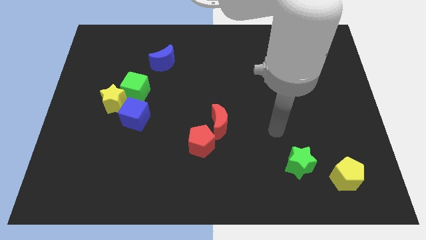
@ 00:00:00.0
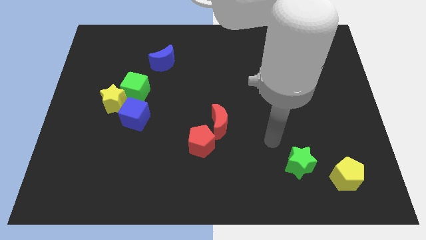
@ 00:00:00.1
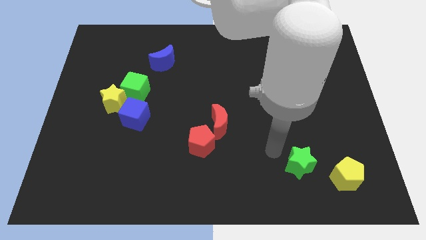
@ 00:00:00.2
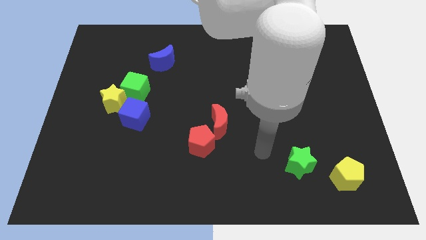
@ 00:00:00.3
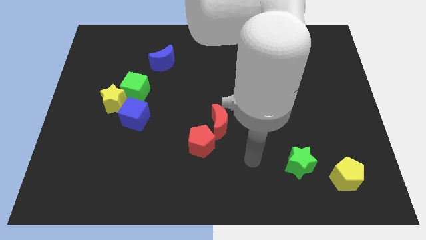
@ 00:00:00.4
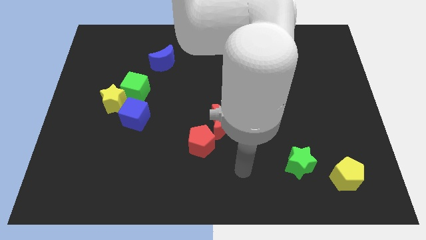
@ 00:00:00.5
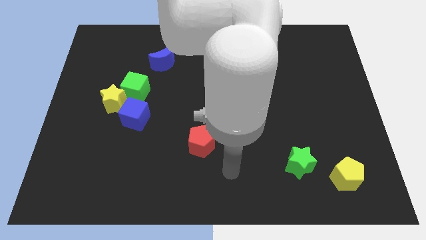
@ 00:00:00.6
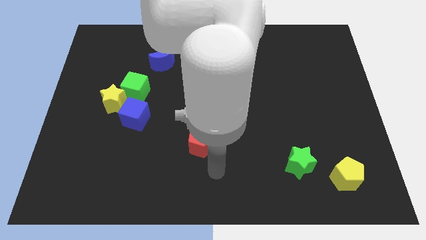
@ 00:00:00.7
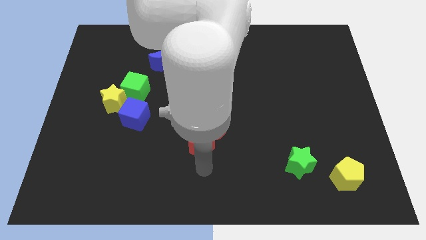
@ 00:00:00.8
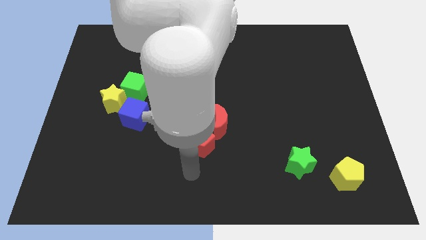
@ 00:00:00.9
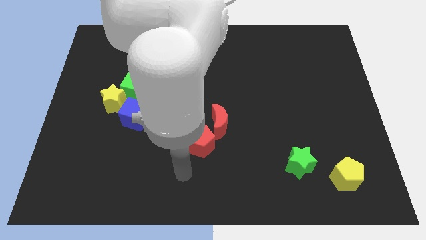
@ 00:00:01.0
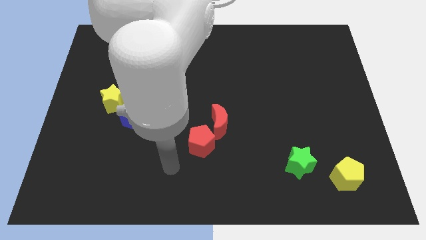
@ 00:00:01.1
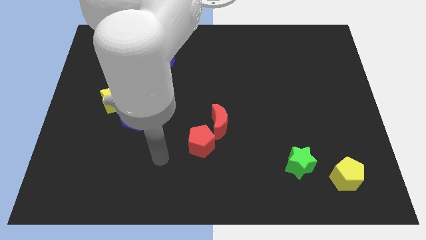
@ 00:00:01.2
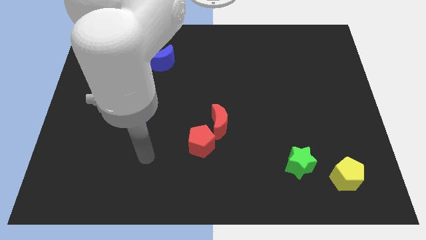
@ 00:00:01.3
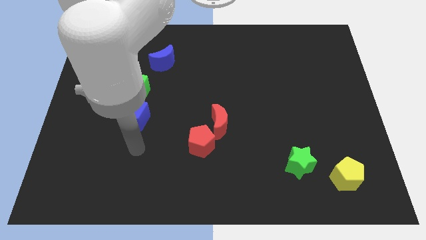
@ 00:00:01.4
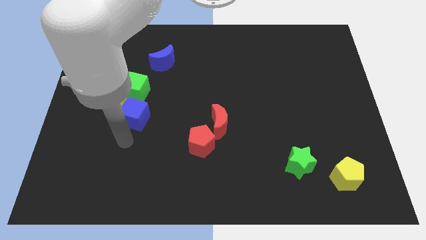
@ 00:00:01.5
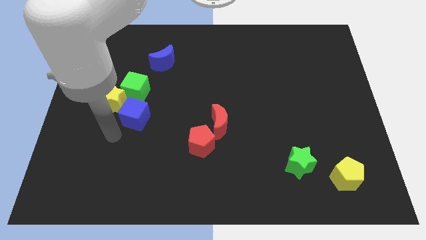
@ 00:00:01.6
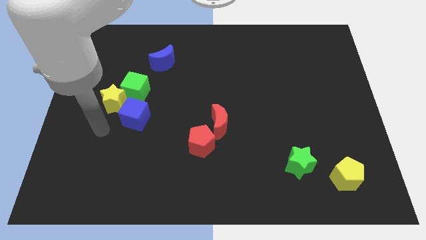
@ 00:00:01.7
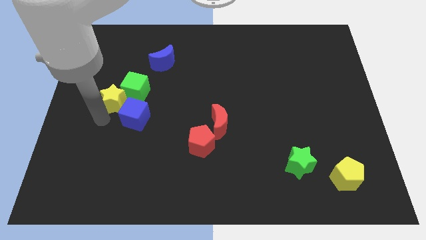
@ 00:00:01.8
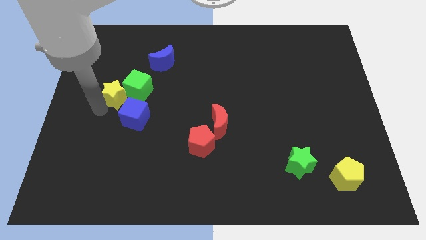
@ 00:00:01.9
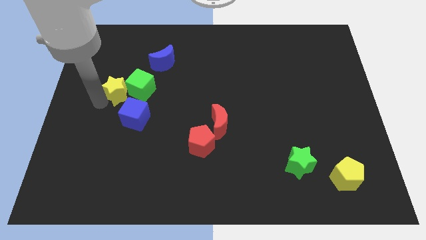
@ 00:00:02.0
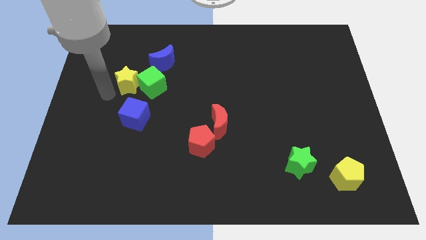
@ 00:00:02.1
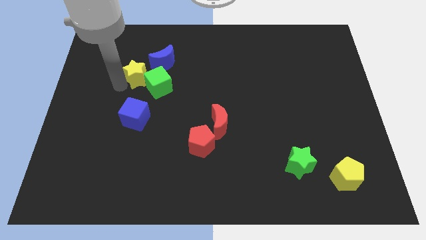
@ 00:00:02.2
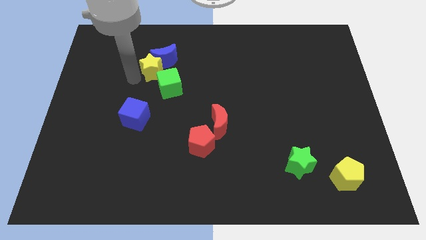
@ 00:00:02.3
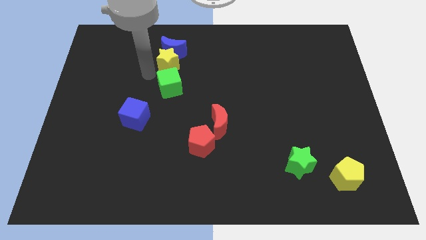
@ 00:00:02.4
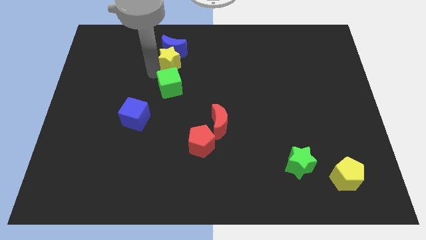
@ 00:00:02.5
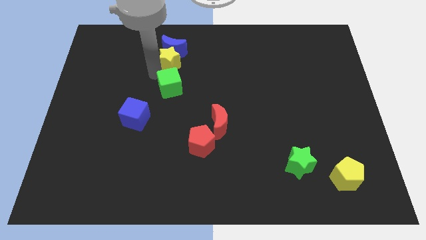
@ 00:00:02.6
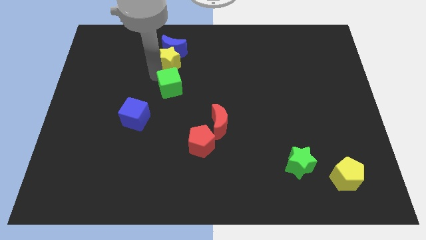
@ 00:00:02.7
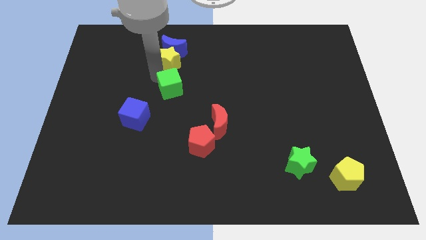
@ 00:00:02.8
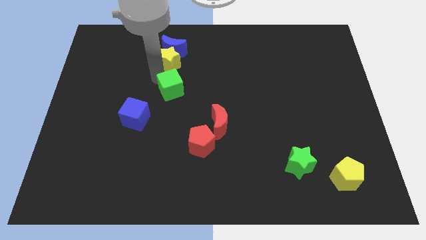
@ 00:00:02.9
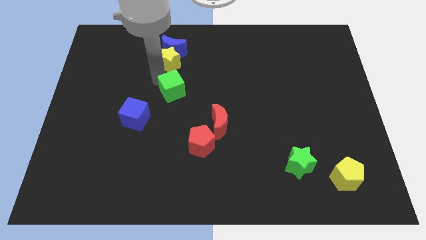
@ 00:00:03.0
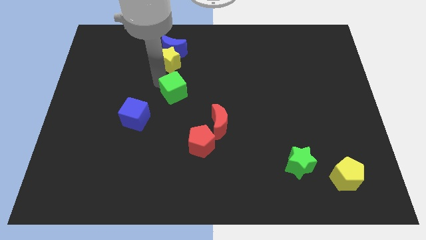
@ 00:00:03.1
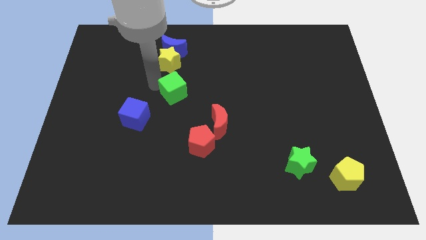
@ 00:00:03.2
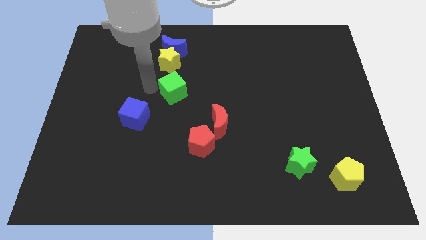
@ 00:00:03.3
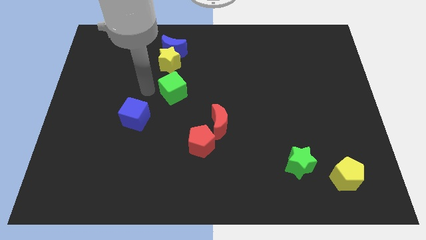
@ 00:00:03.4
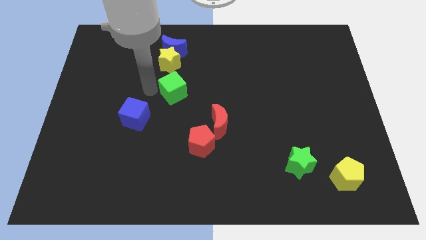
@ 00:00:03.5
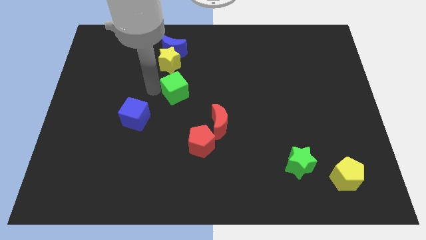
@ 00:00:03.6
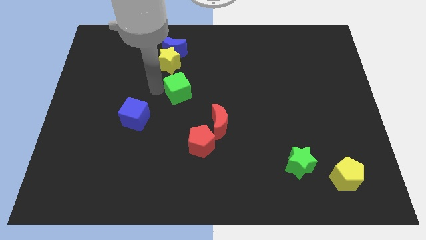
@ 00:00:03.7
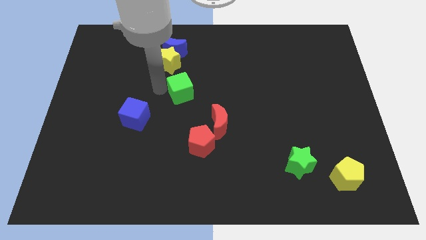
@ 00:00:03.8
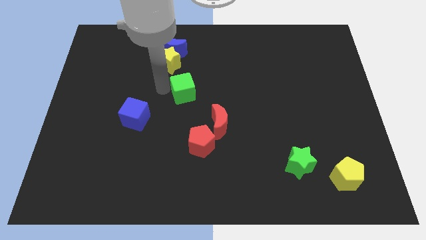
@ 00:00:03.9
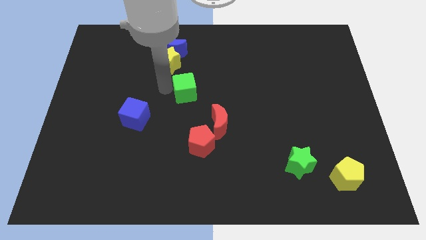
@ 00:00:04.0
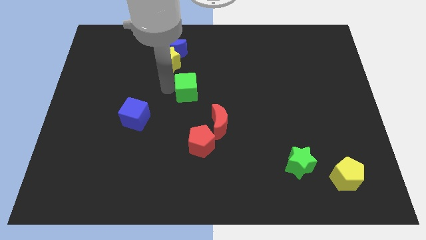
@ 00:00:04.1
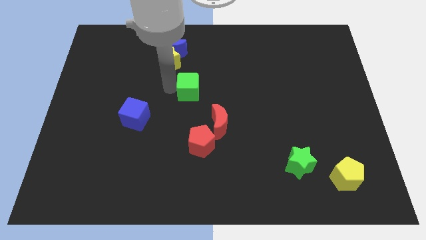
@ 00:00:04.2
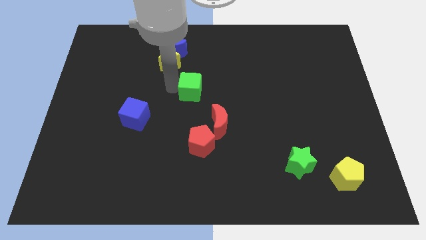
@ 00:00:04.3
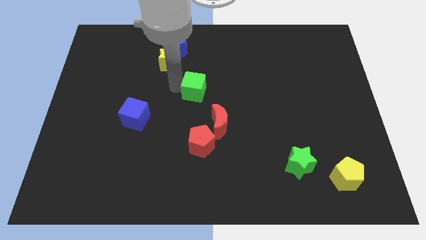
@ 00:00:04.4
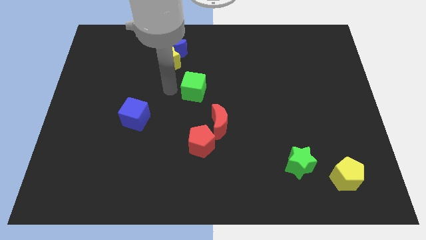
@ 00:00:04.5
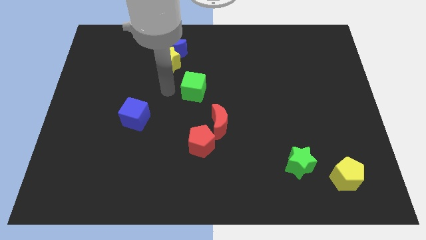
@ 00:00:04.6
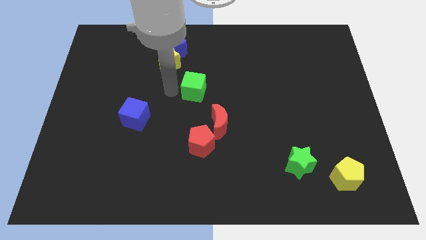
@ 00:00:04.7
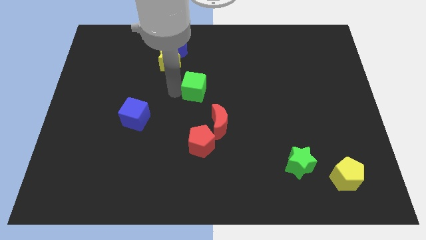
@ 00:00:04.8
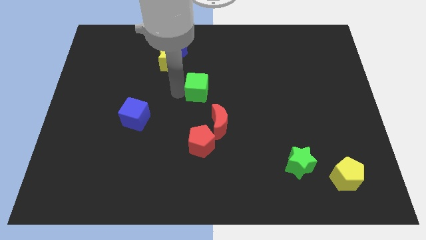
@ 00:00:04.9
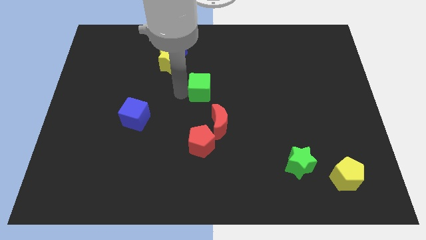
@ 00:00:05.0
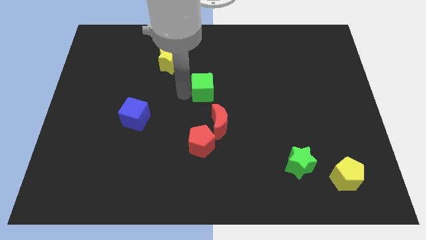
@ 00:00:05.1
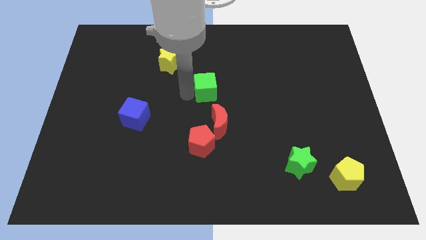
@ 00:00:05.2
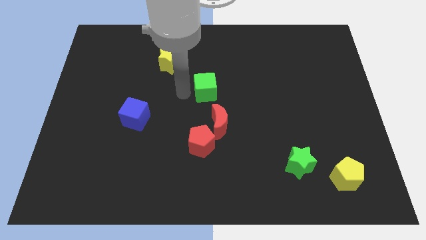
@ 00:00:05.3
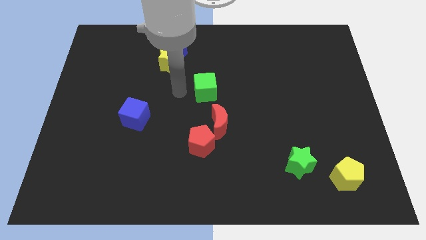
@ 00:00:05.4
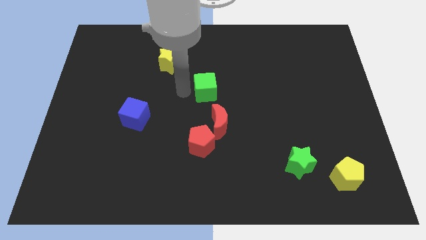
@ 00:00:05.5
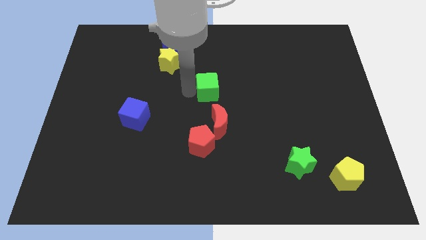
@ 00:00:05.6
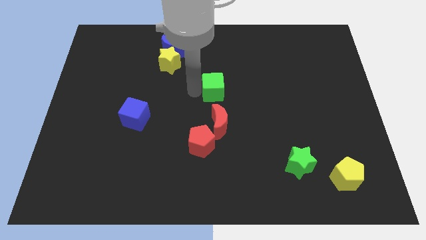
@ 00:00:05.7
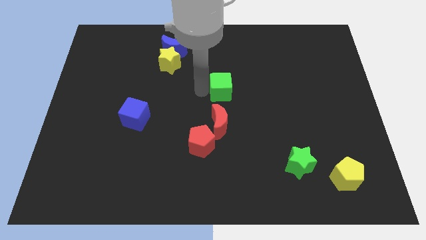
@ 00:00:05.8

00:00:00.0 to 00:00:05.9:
move the green cube right

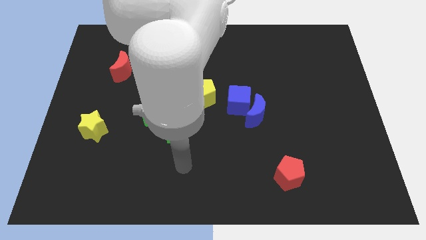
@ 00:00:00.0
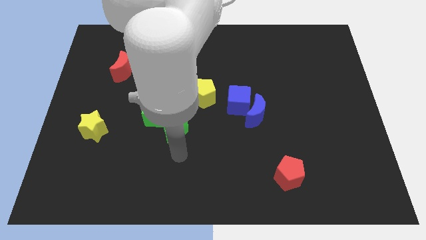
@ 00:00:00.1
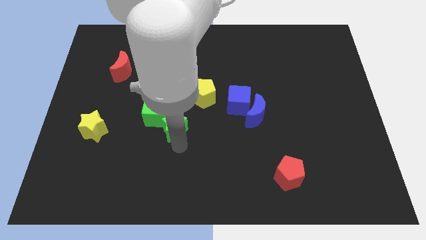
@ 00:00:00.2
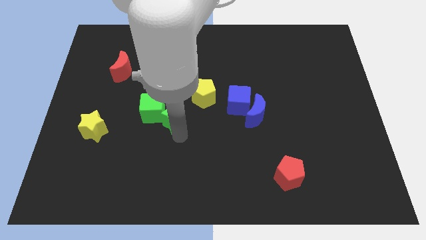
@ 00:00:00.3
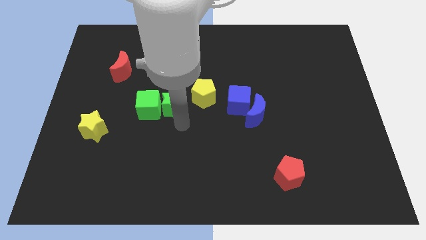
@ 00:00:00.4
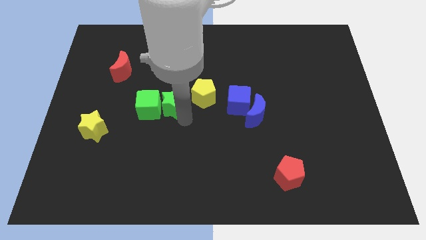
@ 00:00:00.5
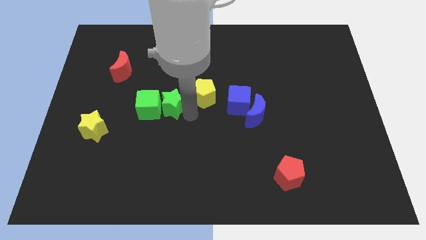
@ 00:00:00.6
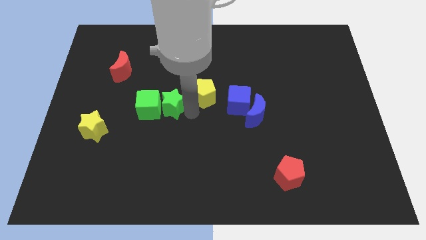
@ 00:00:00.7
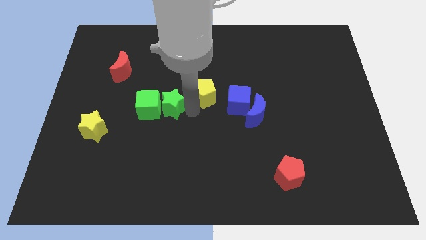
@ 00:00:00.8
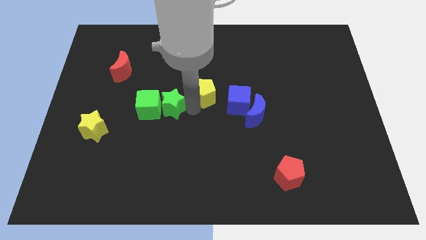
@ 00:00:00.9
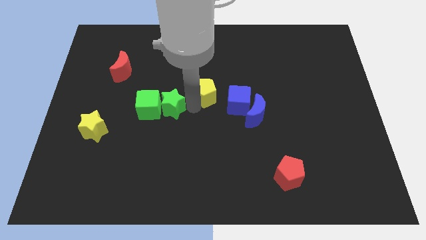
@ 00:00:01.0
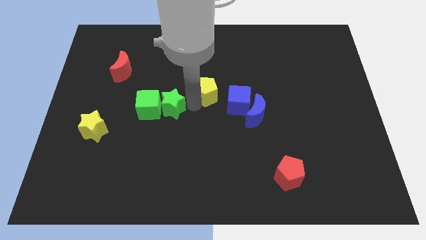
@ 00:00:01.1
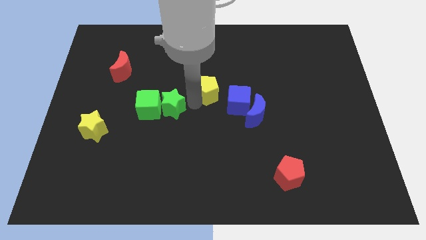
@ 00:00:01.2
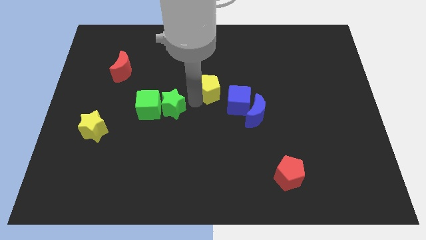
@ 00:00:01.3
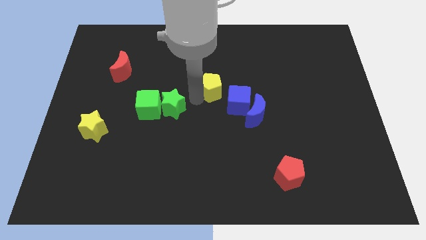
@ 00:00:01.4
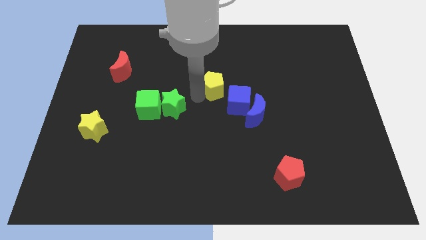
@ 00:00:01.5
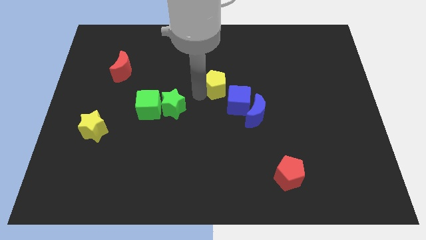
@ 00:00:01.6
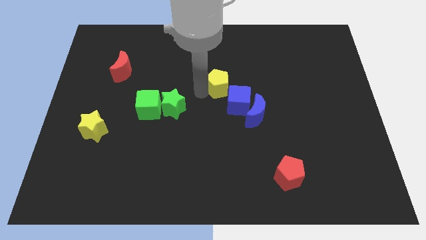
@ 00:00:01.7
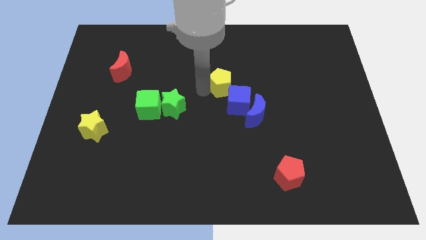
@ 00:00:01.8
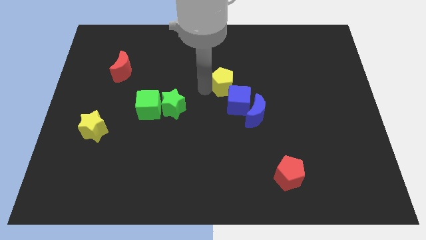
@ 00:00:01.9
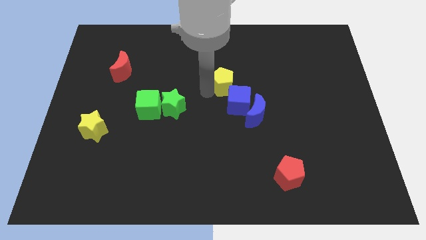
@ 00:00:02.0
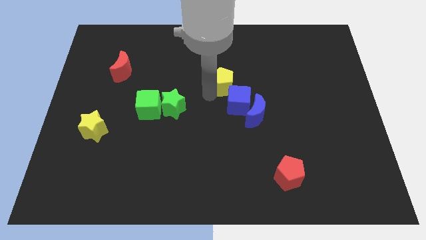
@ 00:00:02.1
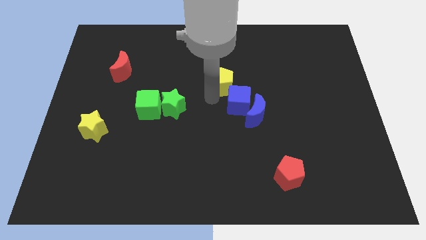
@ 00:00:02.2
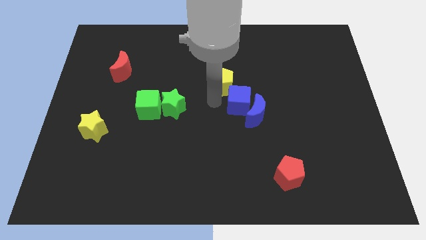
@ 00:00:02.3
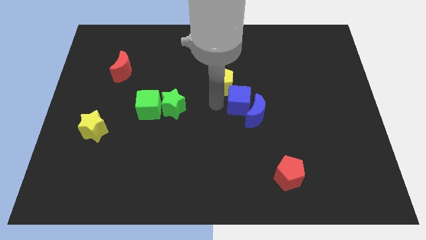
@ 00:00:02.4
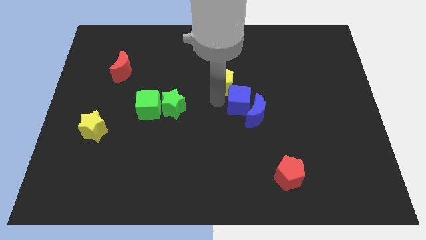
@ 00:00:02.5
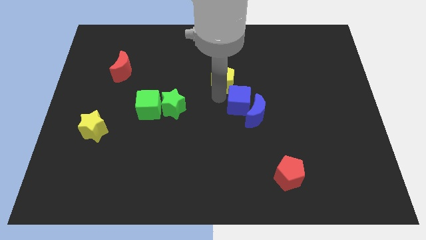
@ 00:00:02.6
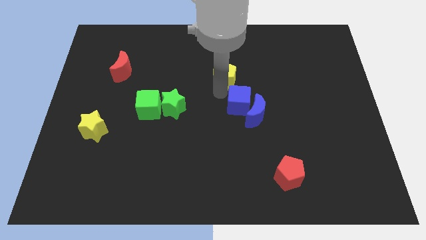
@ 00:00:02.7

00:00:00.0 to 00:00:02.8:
slightly push the yellow pentagon upwards and then right
